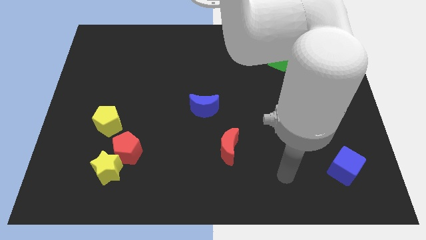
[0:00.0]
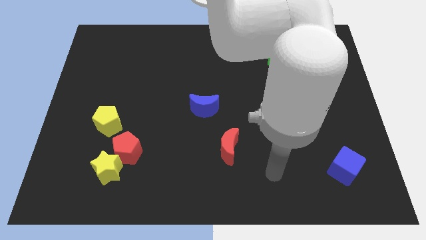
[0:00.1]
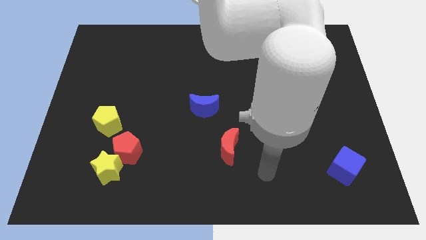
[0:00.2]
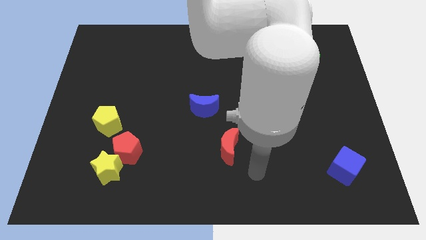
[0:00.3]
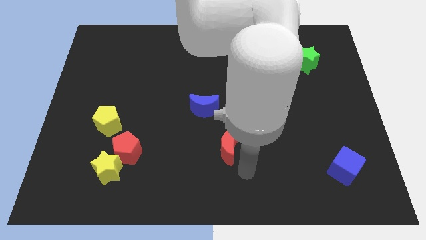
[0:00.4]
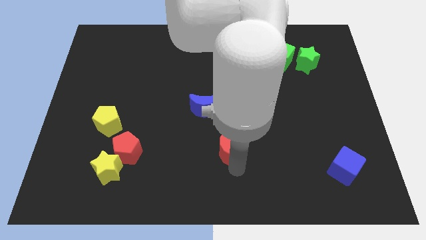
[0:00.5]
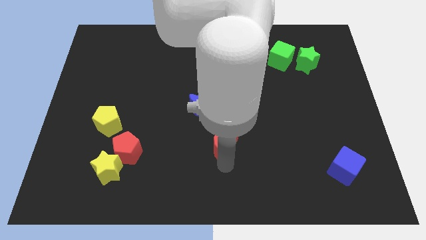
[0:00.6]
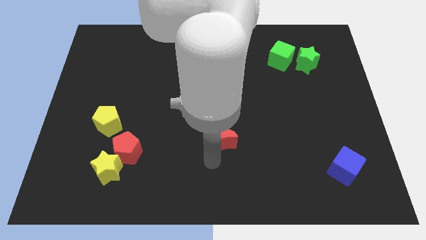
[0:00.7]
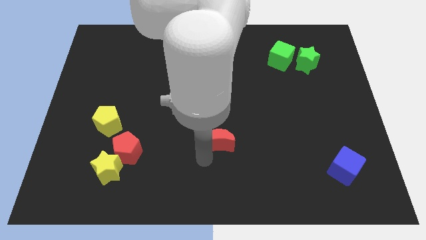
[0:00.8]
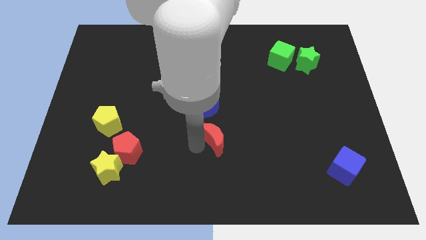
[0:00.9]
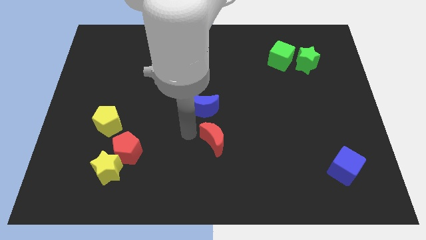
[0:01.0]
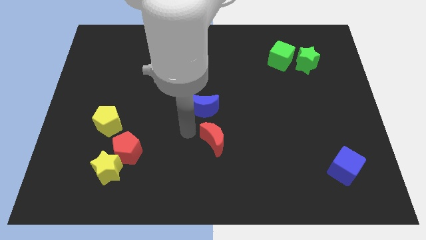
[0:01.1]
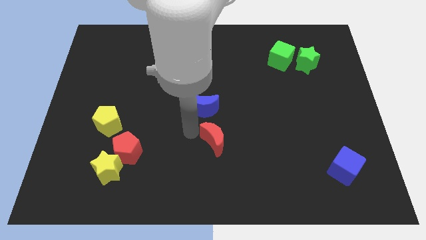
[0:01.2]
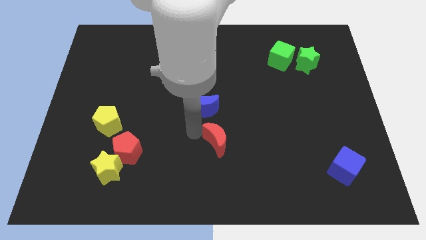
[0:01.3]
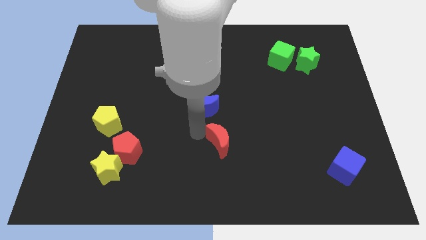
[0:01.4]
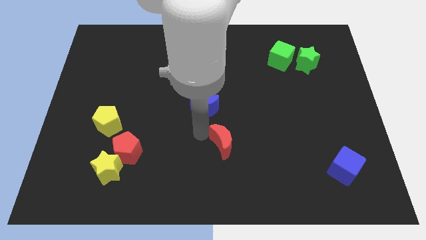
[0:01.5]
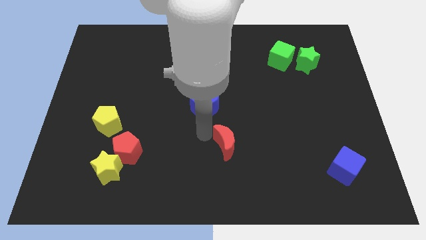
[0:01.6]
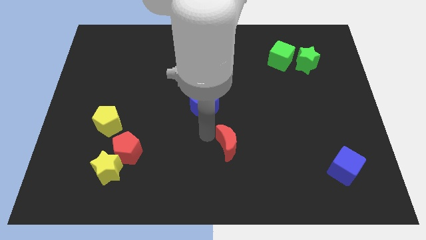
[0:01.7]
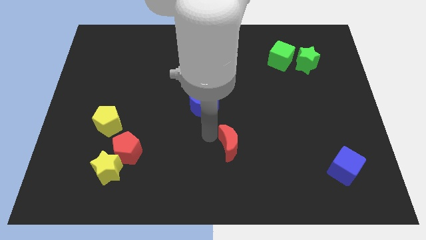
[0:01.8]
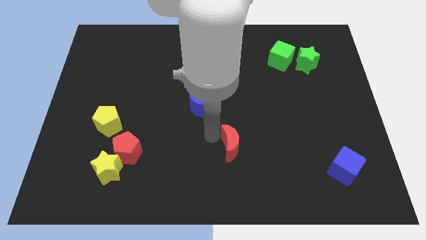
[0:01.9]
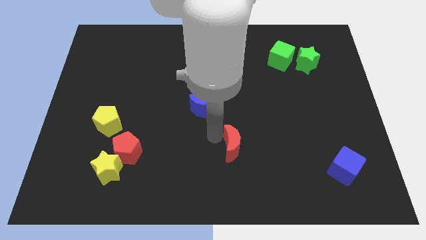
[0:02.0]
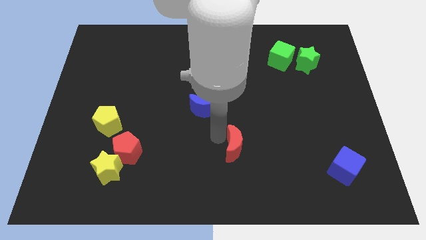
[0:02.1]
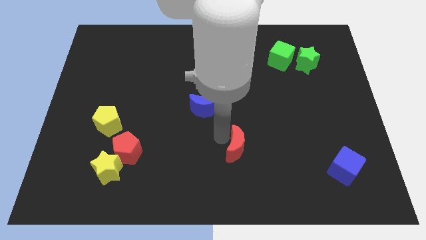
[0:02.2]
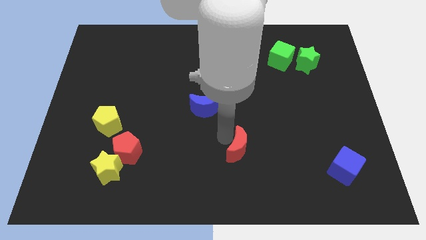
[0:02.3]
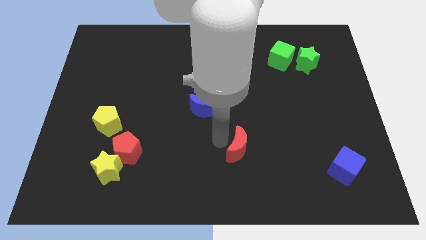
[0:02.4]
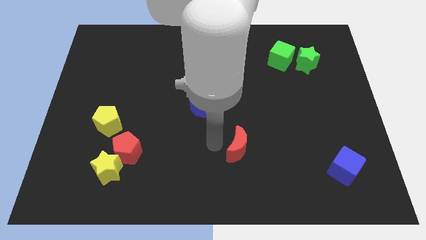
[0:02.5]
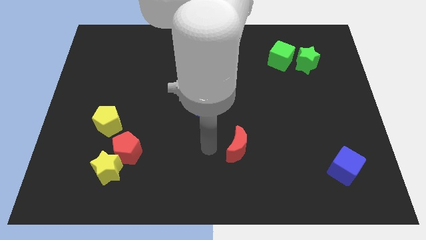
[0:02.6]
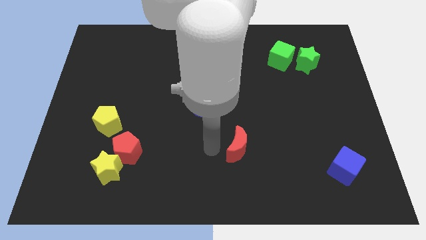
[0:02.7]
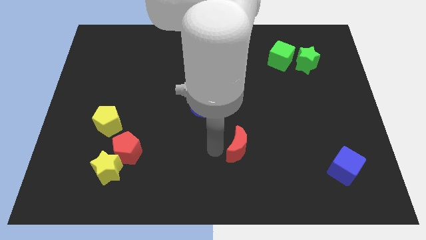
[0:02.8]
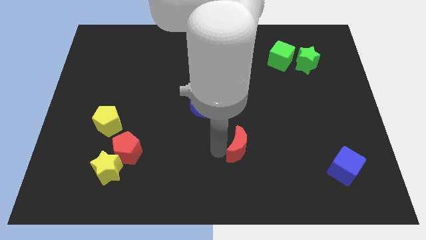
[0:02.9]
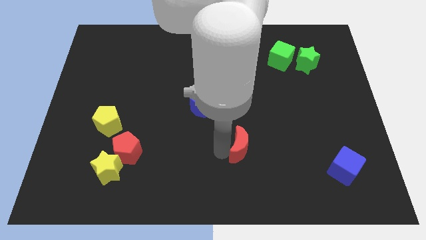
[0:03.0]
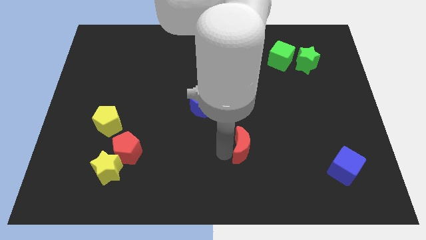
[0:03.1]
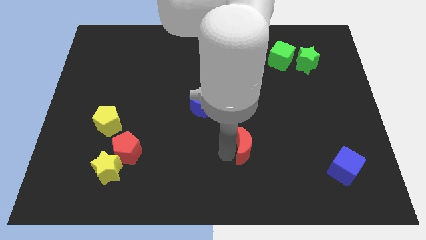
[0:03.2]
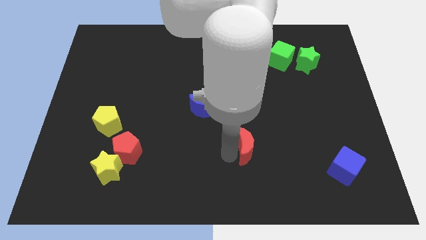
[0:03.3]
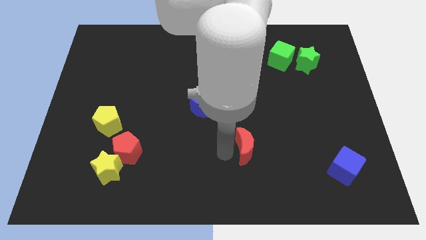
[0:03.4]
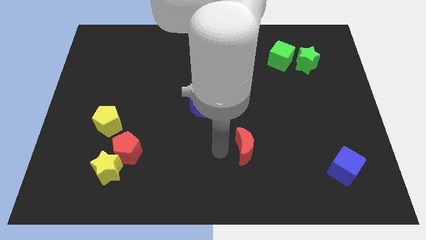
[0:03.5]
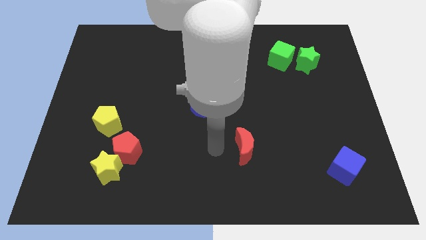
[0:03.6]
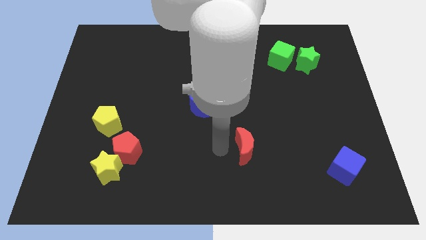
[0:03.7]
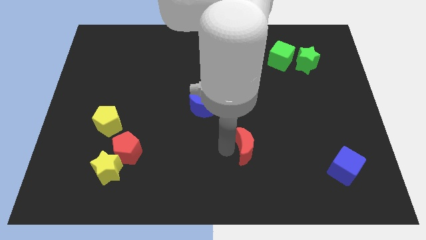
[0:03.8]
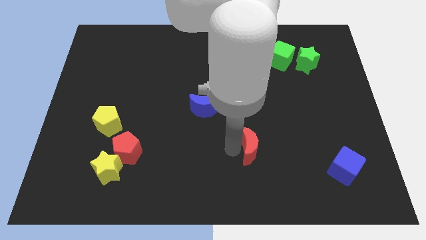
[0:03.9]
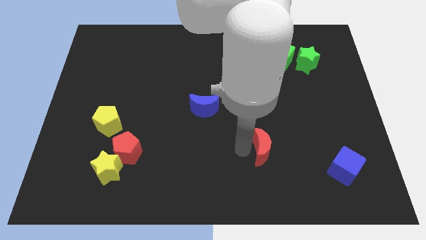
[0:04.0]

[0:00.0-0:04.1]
push the red moon right a little

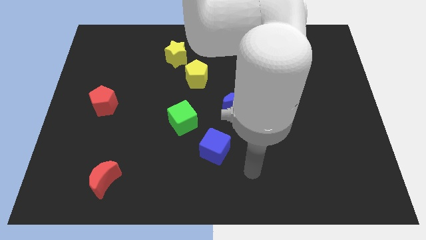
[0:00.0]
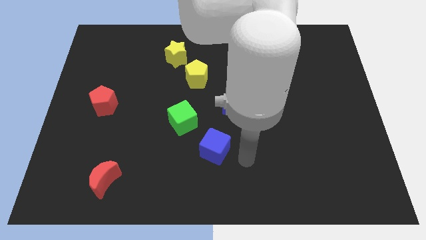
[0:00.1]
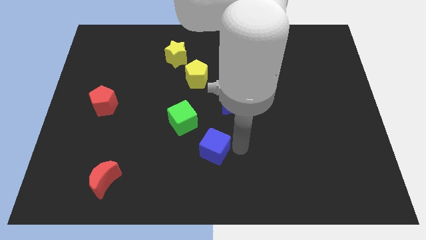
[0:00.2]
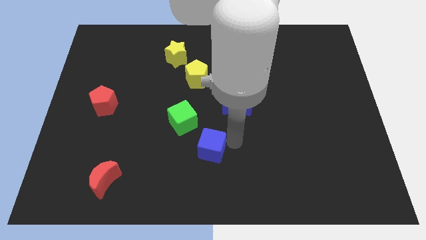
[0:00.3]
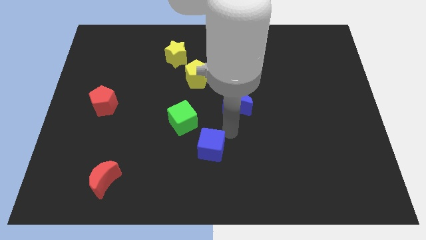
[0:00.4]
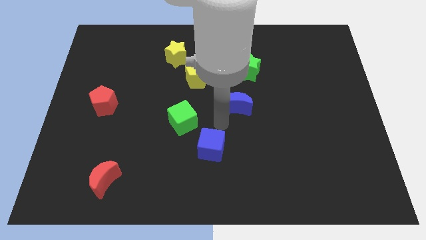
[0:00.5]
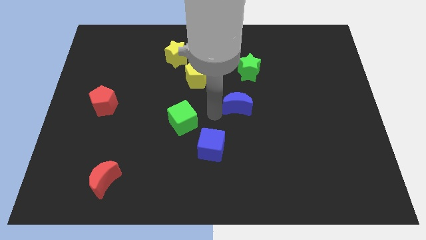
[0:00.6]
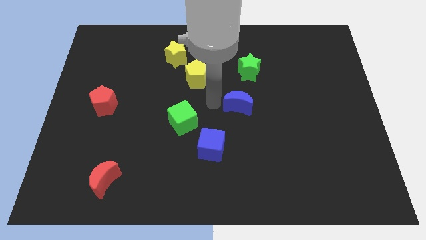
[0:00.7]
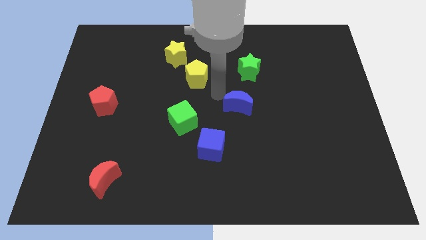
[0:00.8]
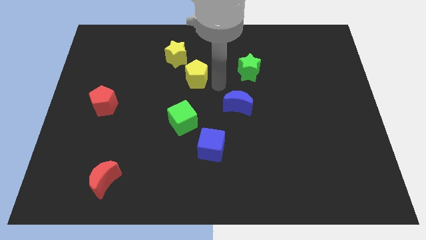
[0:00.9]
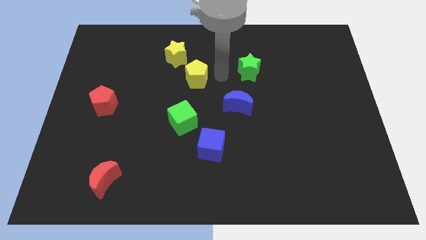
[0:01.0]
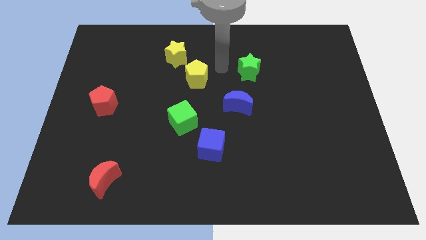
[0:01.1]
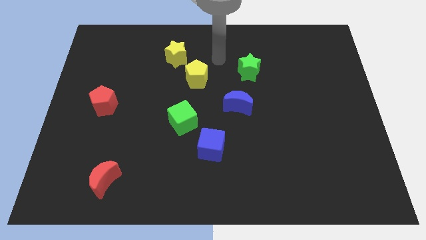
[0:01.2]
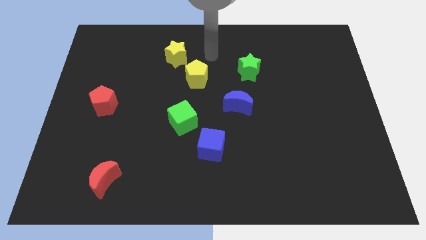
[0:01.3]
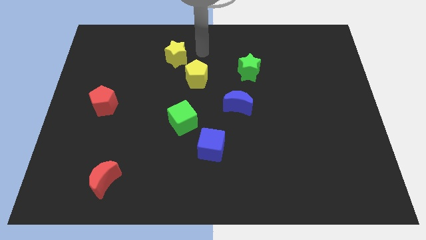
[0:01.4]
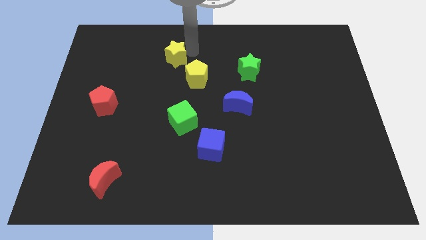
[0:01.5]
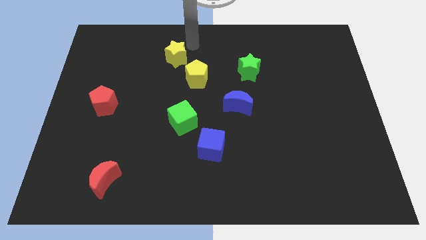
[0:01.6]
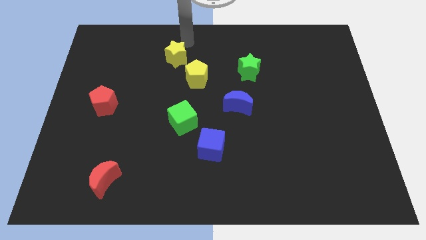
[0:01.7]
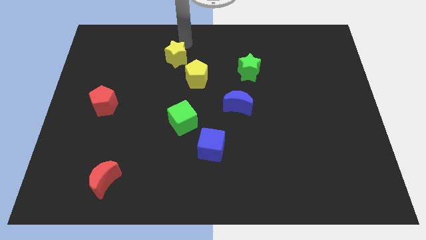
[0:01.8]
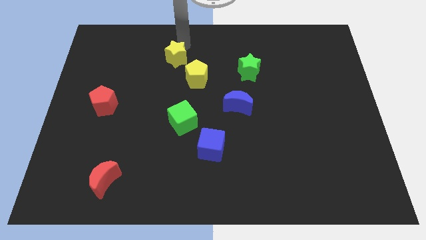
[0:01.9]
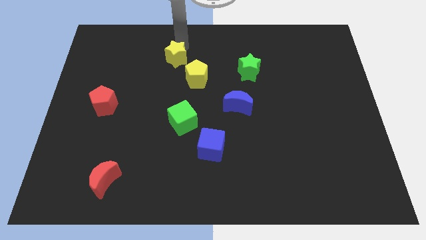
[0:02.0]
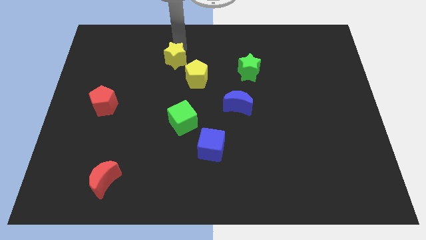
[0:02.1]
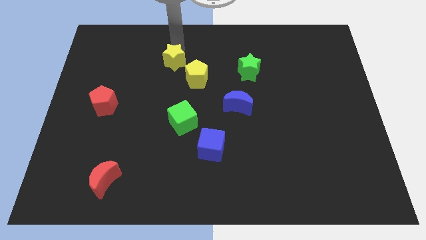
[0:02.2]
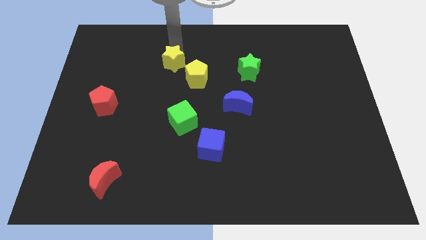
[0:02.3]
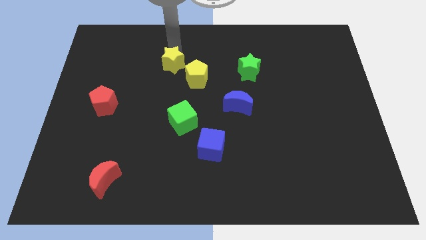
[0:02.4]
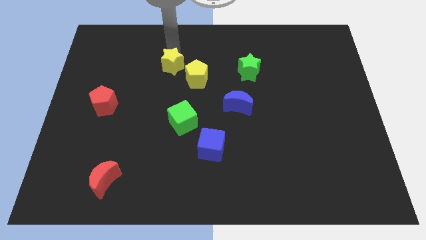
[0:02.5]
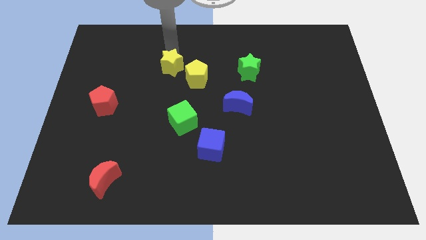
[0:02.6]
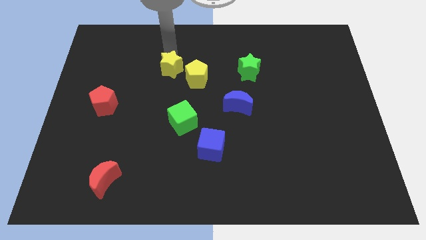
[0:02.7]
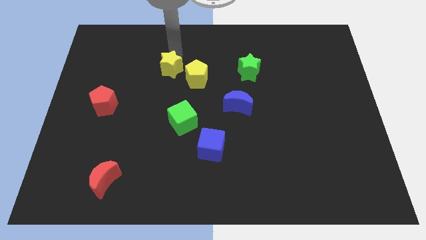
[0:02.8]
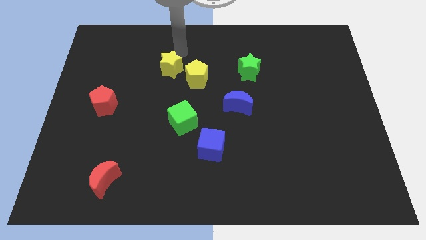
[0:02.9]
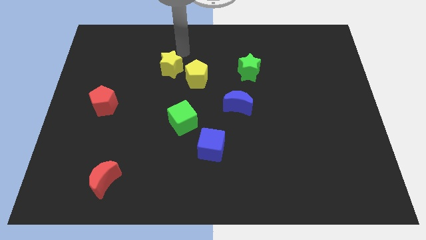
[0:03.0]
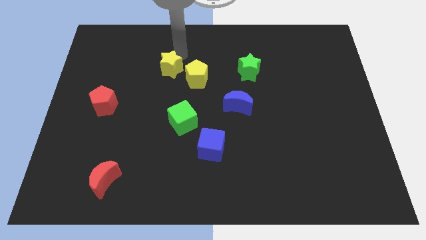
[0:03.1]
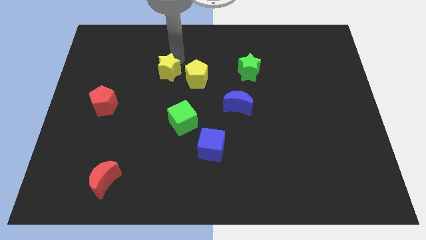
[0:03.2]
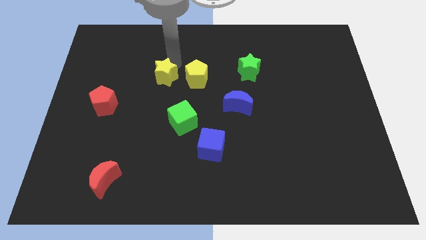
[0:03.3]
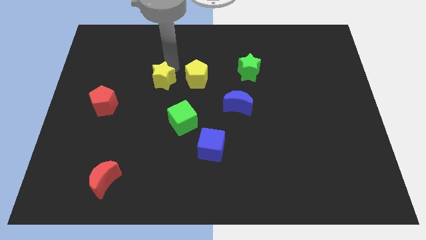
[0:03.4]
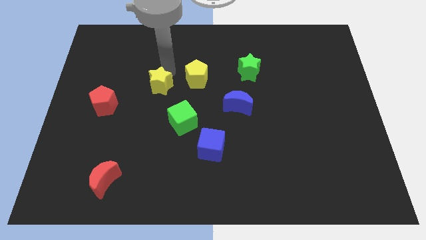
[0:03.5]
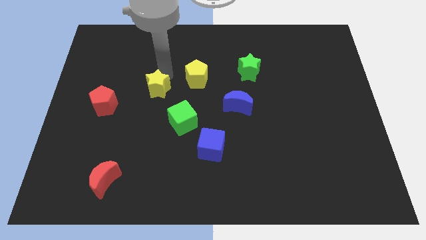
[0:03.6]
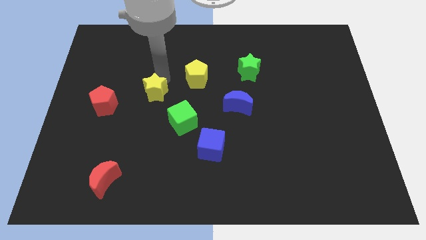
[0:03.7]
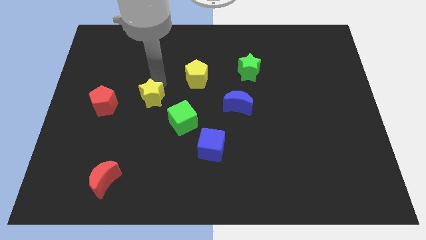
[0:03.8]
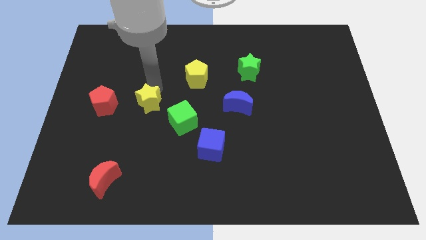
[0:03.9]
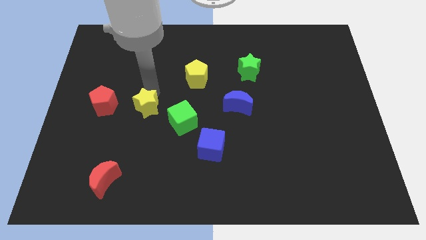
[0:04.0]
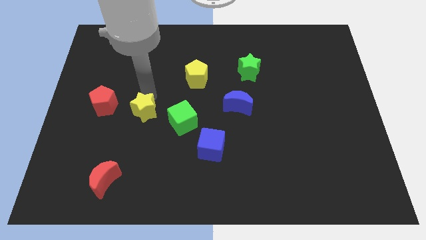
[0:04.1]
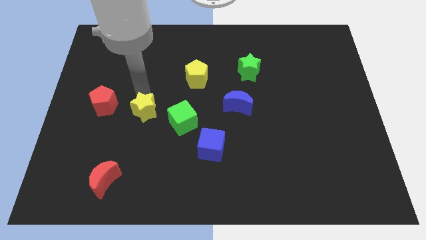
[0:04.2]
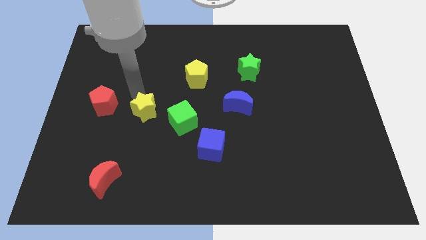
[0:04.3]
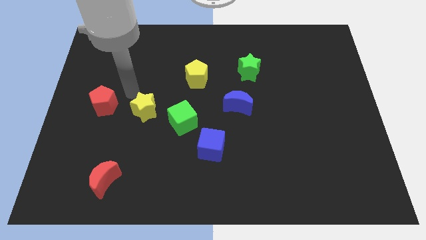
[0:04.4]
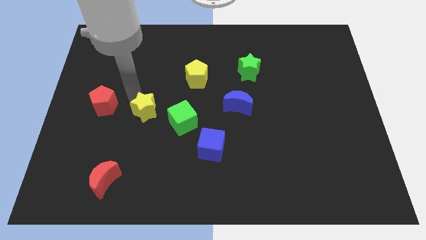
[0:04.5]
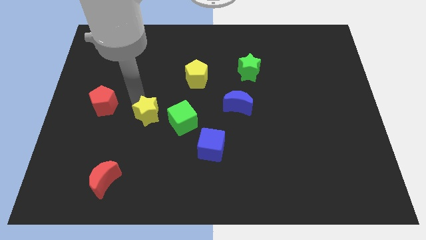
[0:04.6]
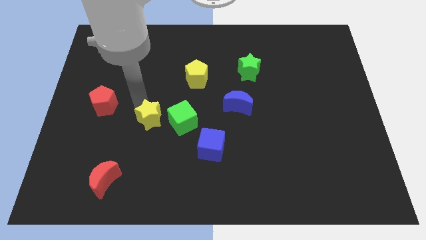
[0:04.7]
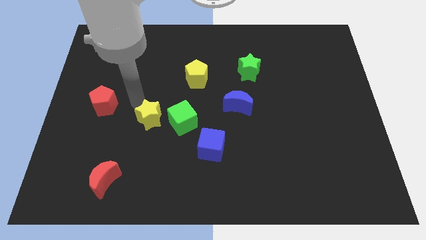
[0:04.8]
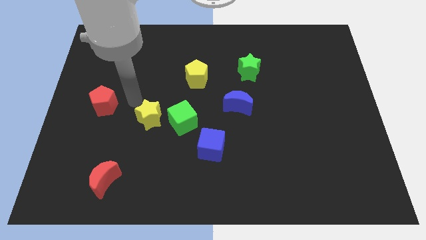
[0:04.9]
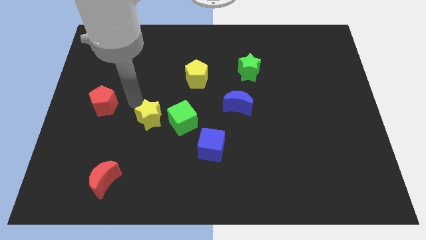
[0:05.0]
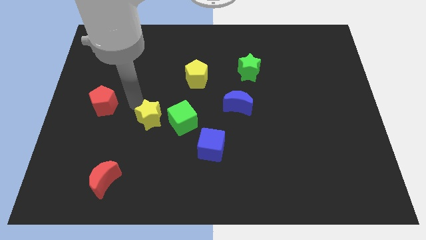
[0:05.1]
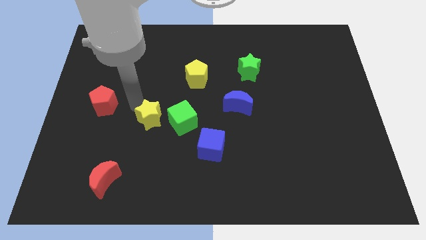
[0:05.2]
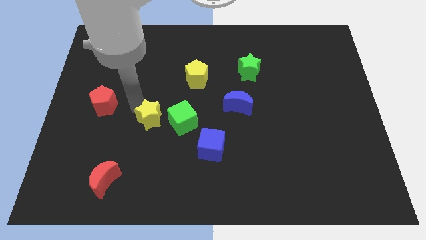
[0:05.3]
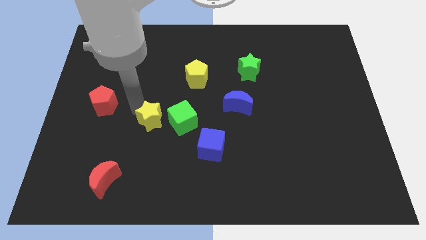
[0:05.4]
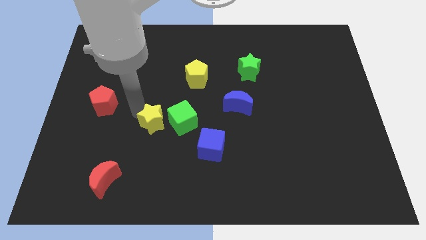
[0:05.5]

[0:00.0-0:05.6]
slide the yellow star down
